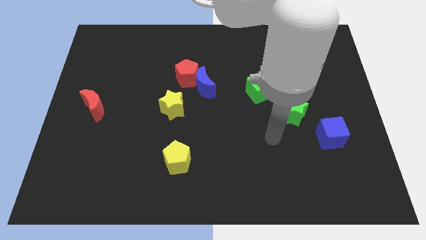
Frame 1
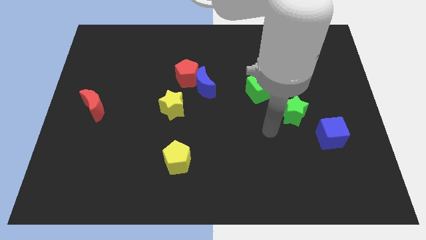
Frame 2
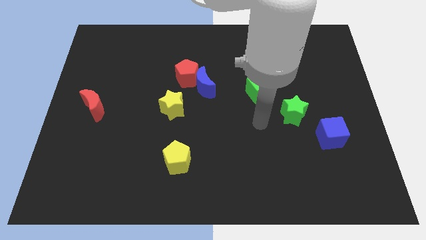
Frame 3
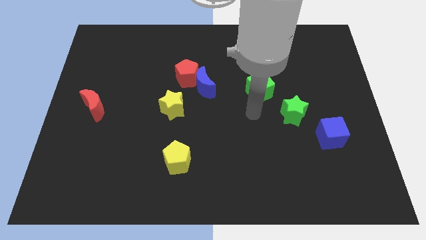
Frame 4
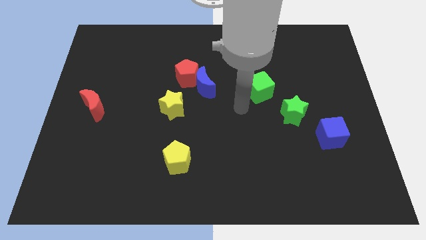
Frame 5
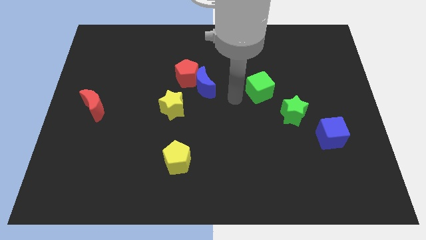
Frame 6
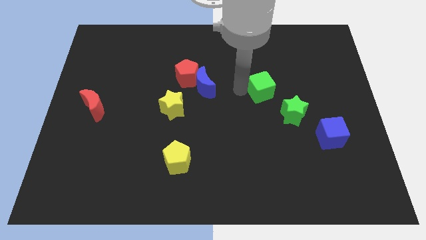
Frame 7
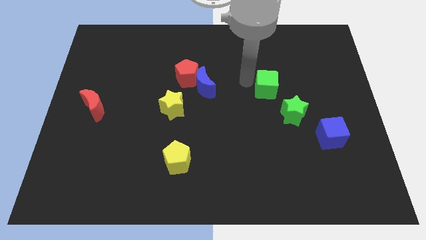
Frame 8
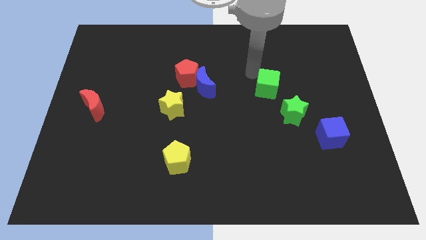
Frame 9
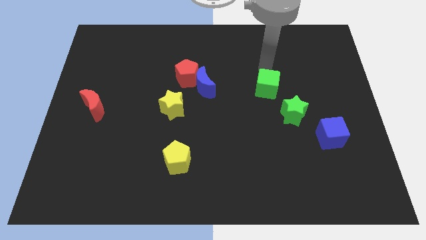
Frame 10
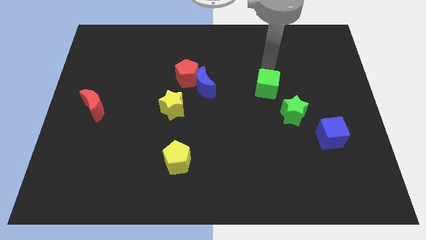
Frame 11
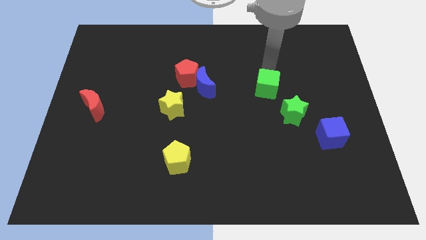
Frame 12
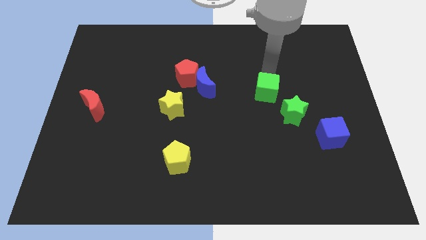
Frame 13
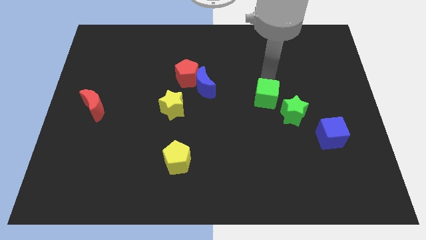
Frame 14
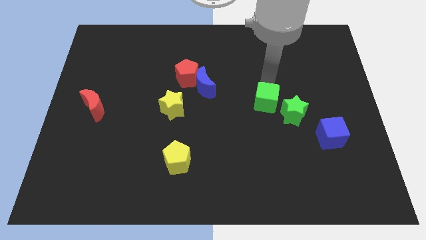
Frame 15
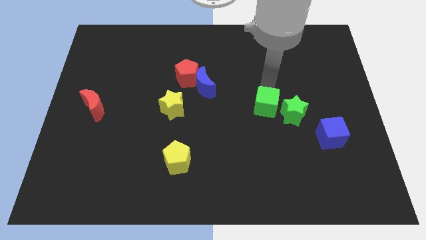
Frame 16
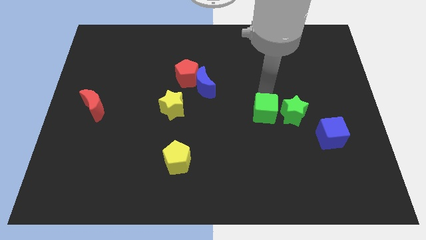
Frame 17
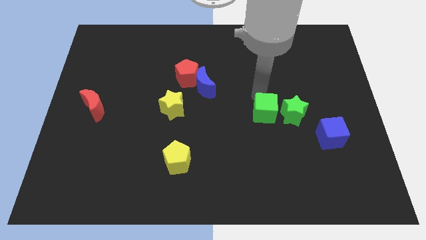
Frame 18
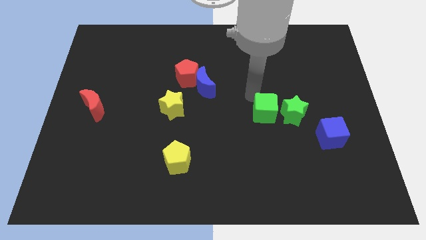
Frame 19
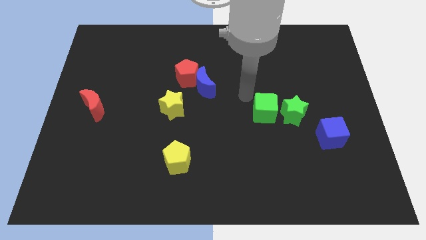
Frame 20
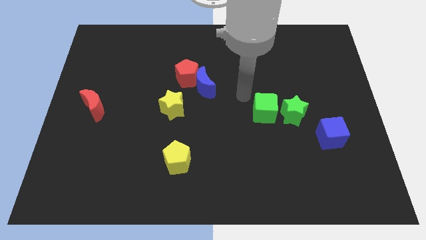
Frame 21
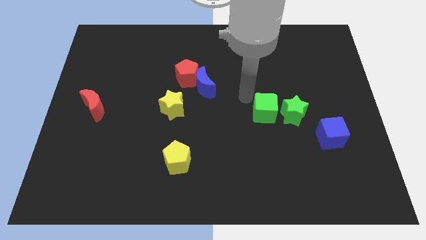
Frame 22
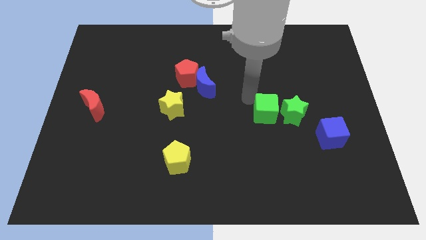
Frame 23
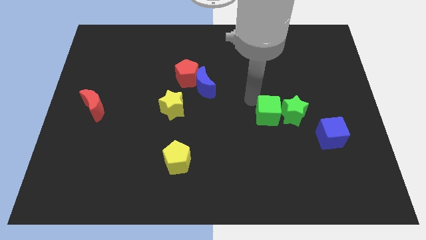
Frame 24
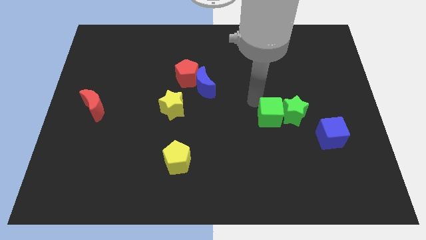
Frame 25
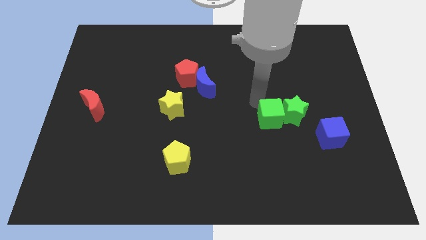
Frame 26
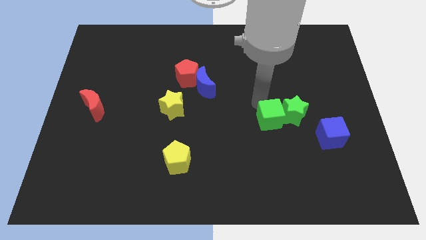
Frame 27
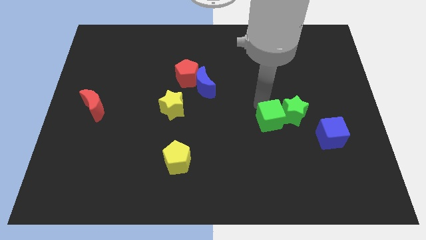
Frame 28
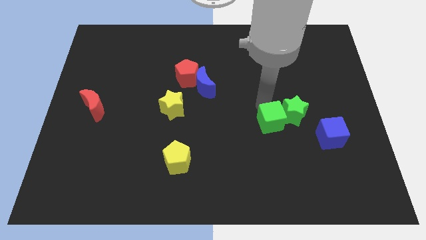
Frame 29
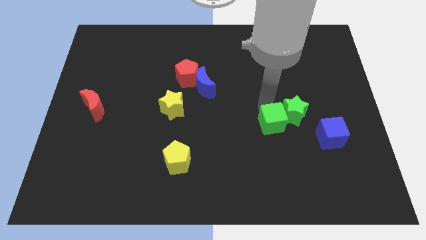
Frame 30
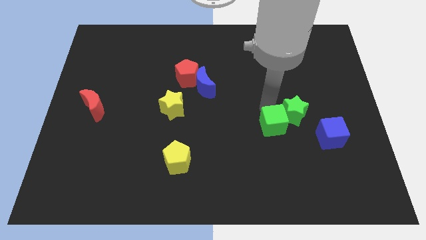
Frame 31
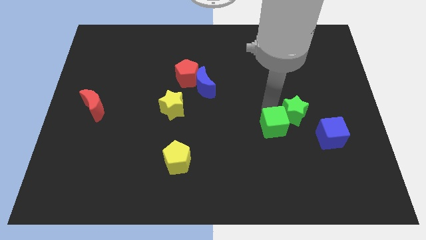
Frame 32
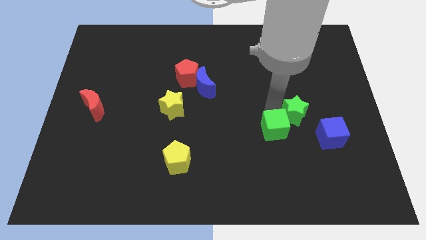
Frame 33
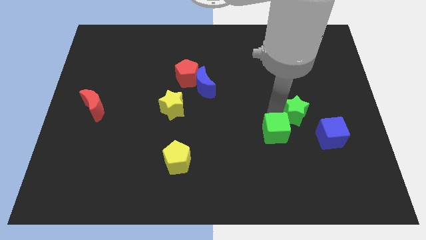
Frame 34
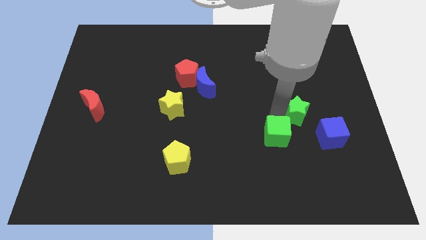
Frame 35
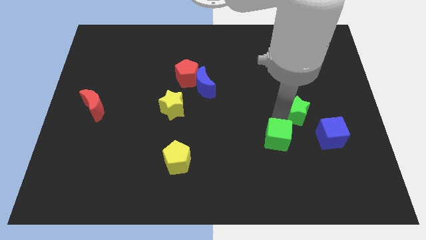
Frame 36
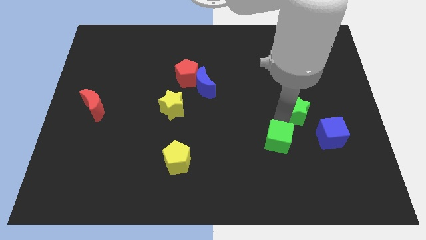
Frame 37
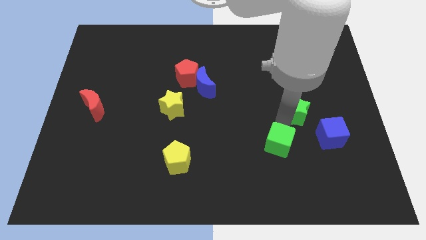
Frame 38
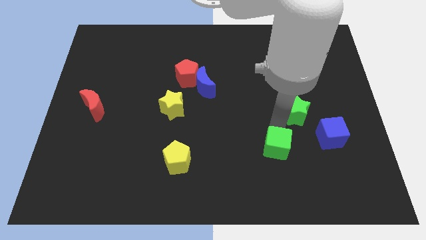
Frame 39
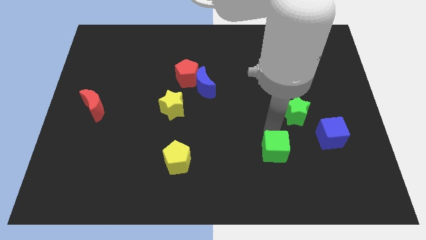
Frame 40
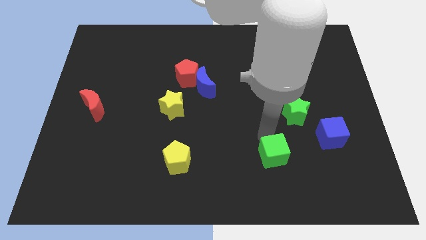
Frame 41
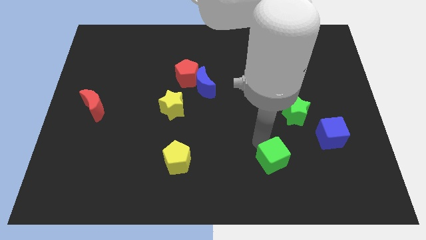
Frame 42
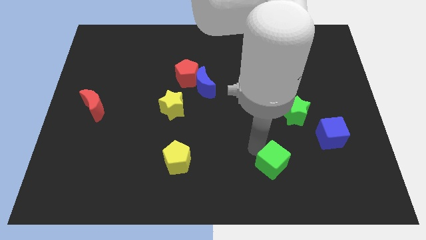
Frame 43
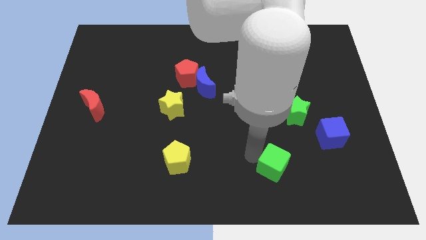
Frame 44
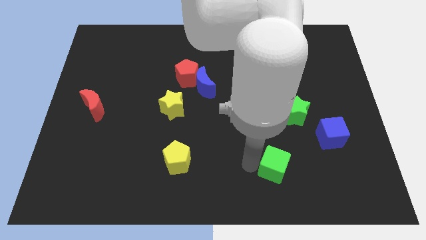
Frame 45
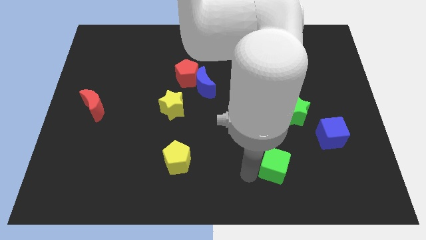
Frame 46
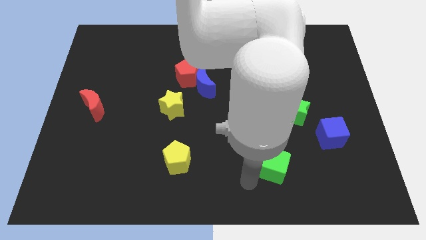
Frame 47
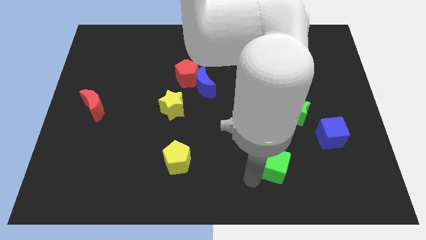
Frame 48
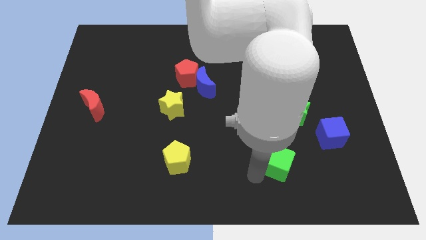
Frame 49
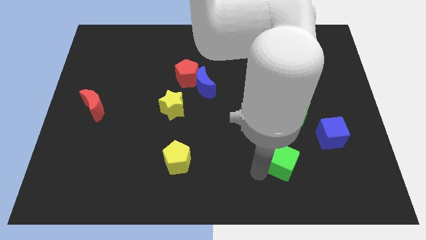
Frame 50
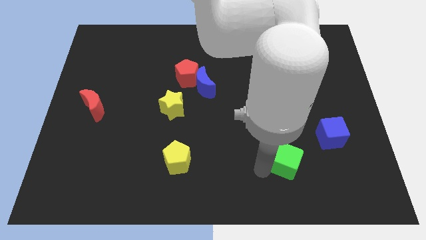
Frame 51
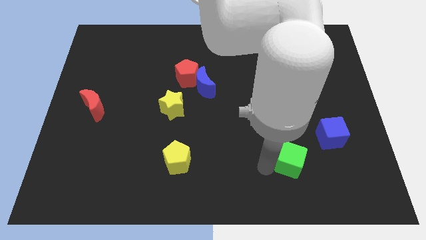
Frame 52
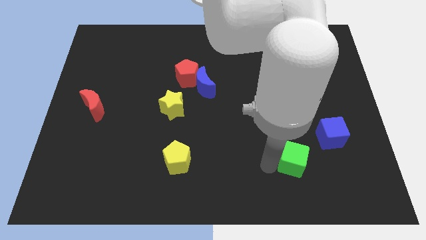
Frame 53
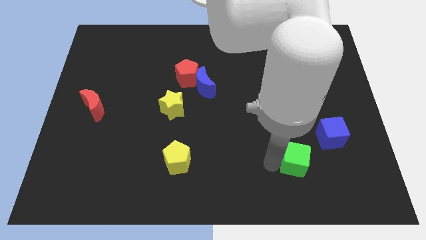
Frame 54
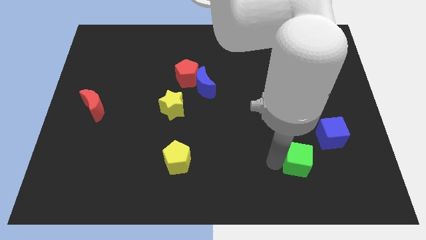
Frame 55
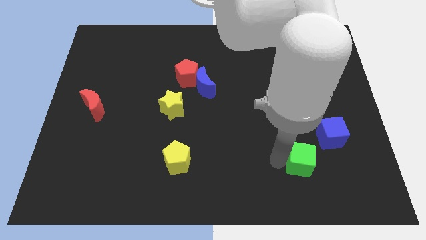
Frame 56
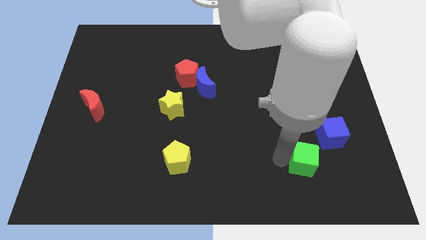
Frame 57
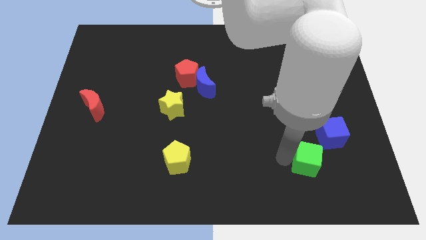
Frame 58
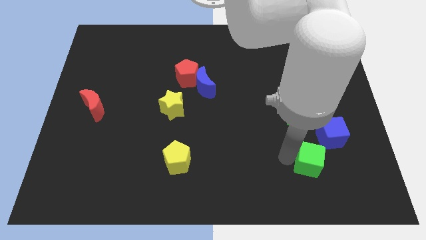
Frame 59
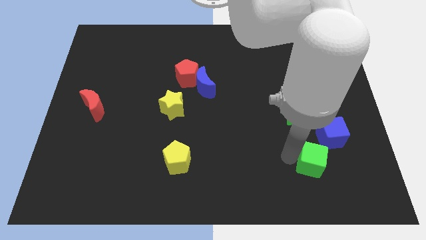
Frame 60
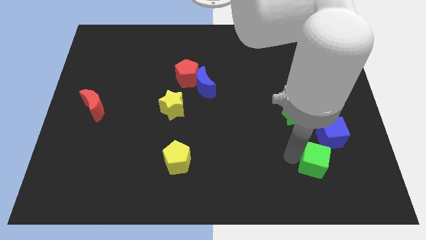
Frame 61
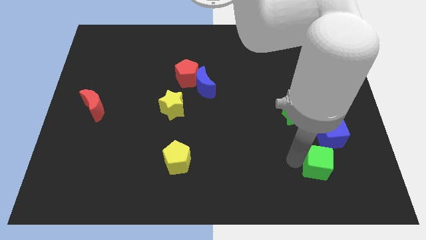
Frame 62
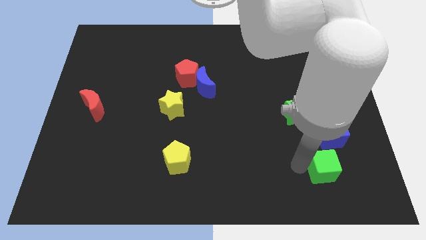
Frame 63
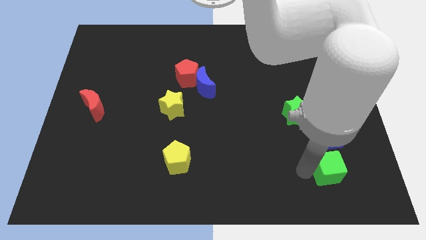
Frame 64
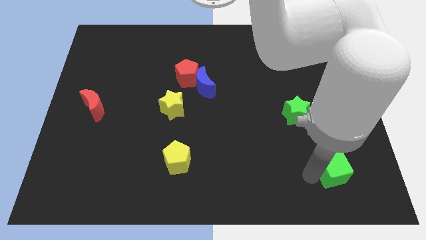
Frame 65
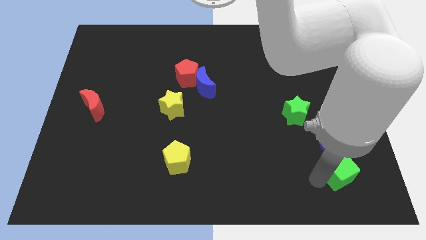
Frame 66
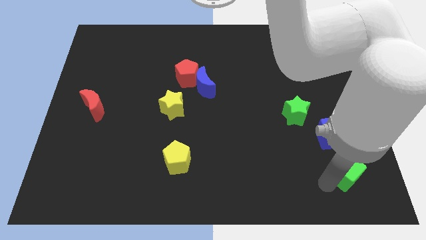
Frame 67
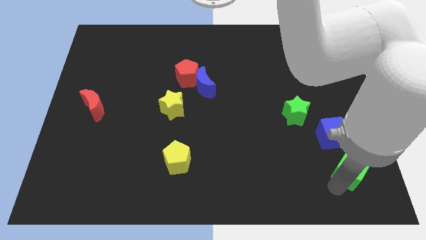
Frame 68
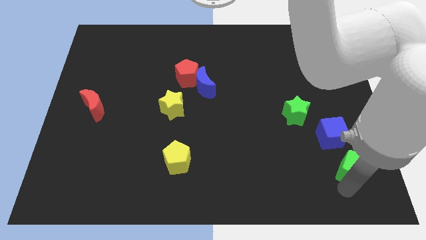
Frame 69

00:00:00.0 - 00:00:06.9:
slide the green cube to the bottom right
